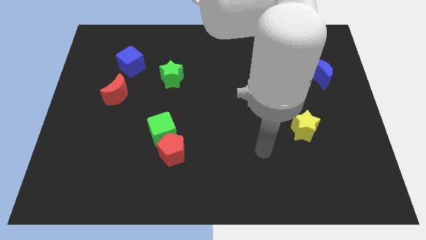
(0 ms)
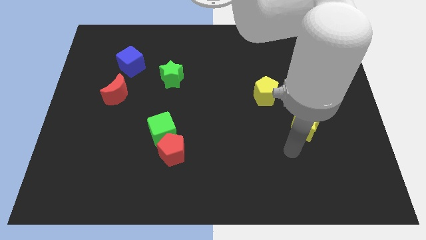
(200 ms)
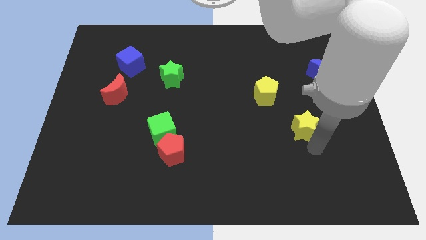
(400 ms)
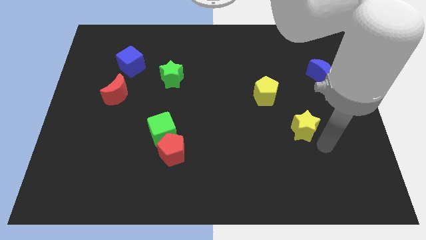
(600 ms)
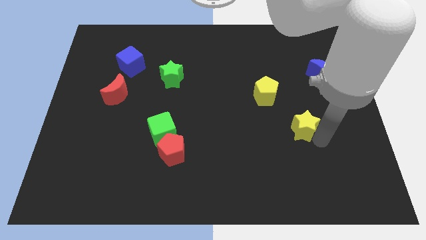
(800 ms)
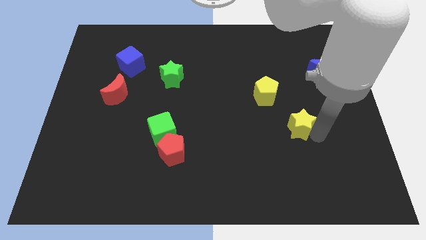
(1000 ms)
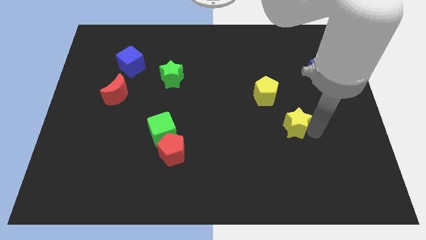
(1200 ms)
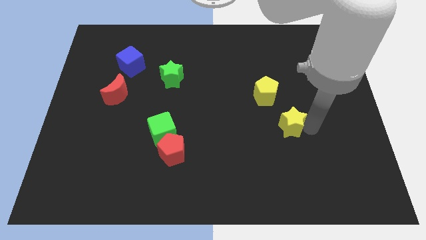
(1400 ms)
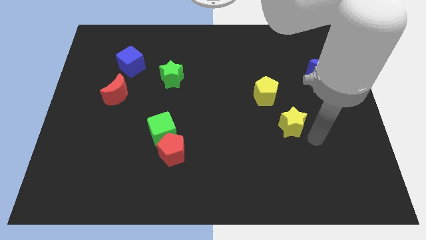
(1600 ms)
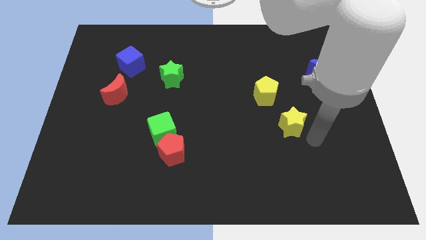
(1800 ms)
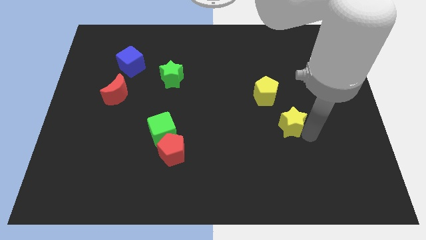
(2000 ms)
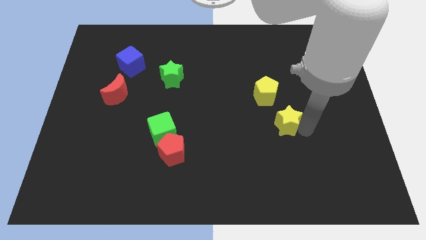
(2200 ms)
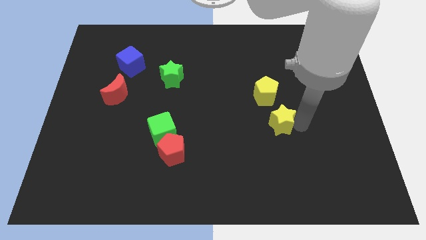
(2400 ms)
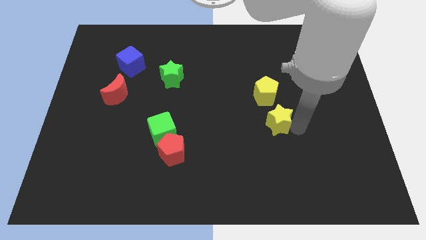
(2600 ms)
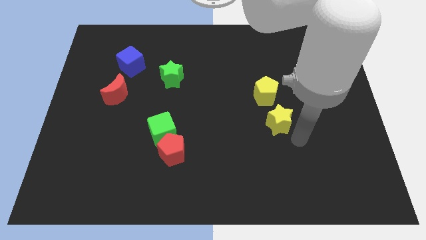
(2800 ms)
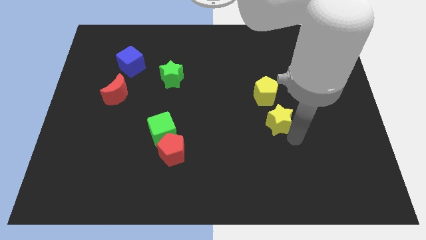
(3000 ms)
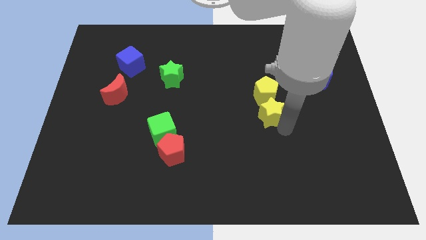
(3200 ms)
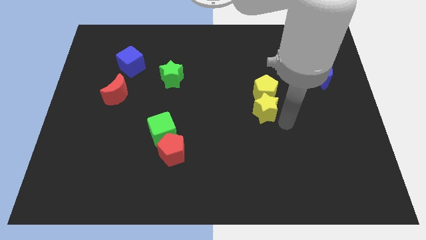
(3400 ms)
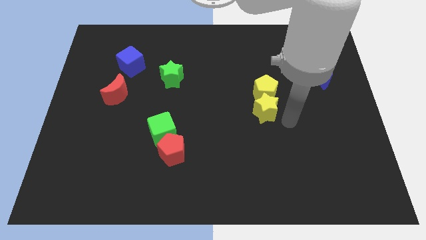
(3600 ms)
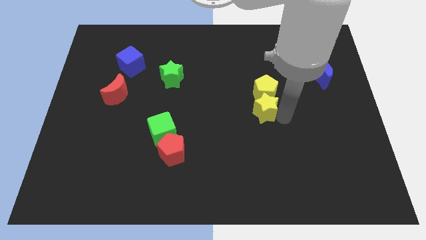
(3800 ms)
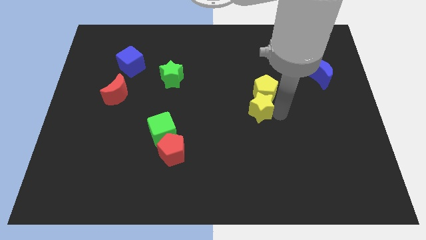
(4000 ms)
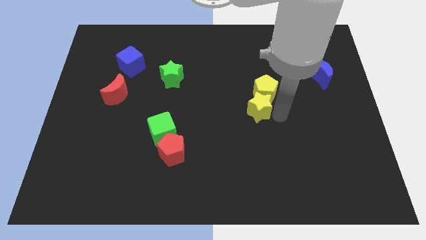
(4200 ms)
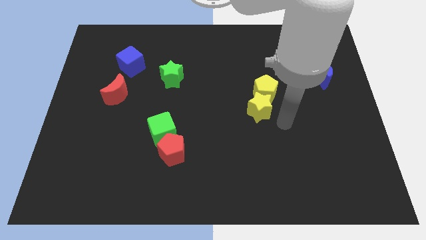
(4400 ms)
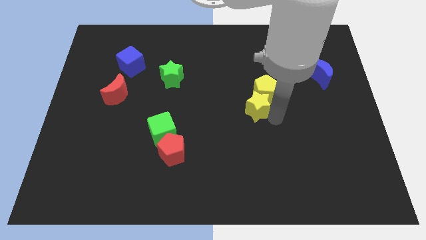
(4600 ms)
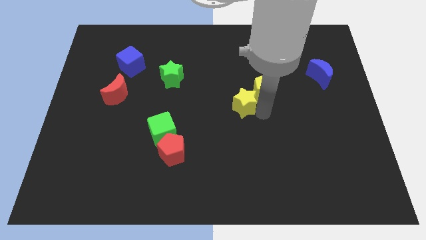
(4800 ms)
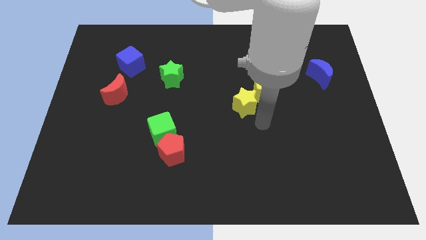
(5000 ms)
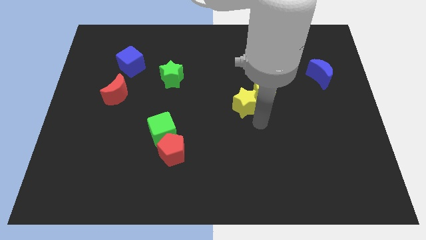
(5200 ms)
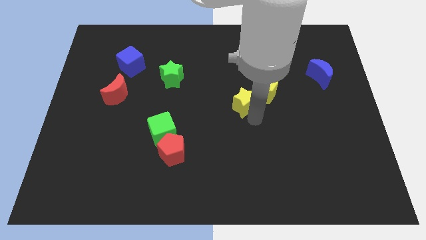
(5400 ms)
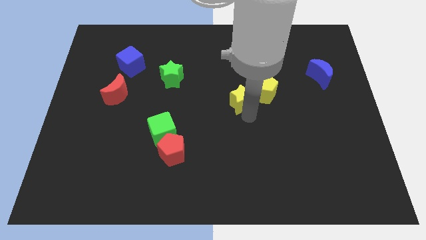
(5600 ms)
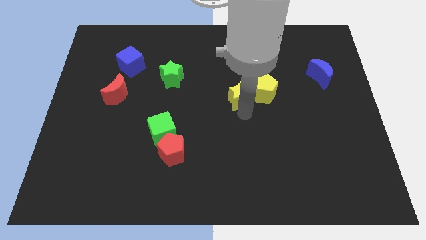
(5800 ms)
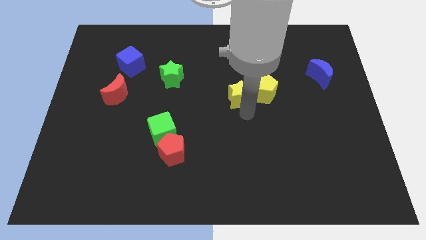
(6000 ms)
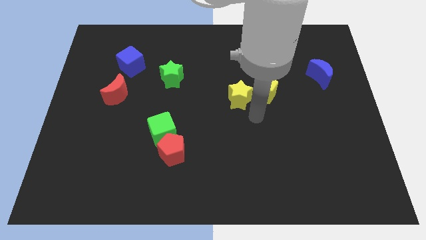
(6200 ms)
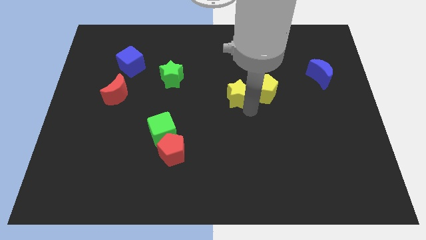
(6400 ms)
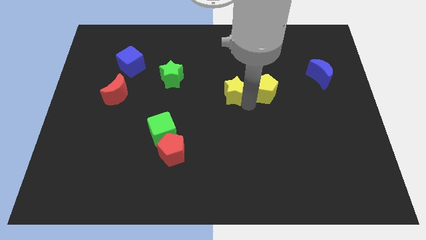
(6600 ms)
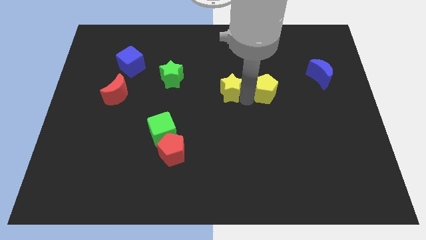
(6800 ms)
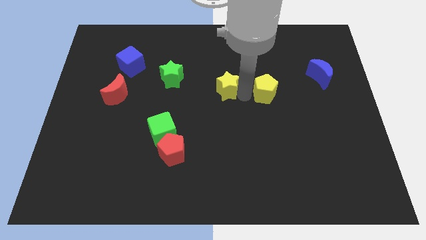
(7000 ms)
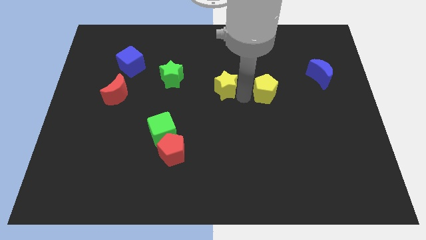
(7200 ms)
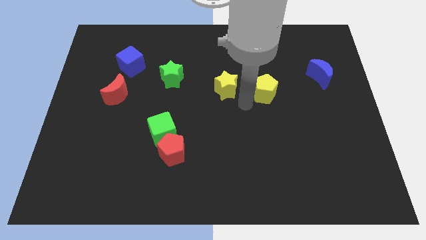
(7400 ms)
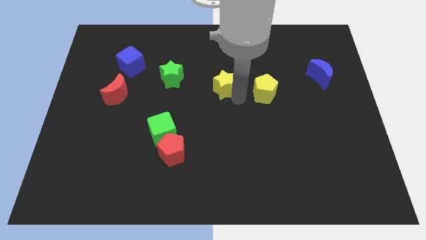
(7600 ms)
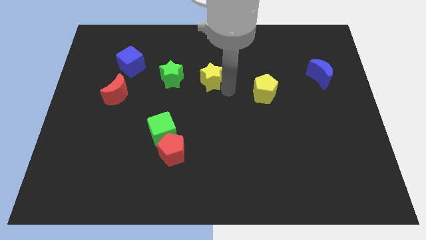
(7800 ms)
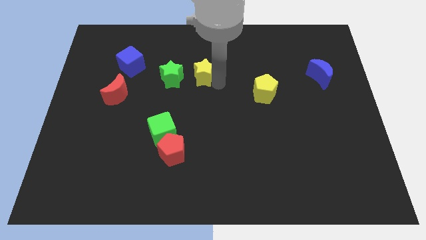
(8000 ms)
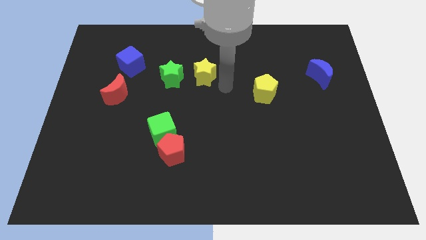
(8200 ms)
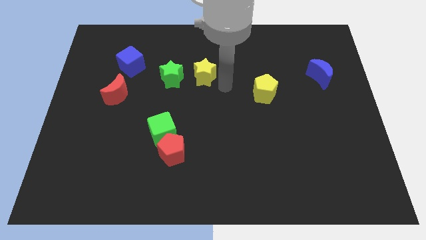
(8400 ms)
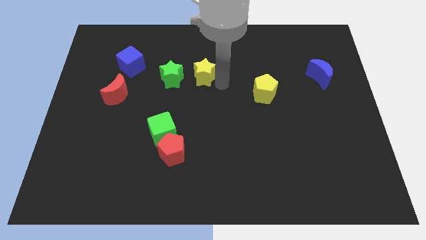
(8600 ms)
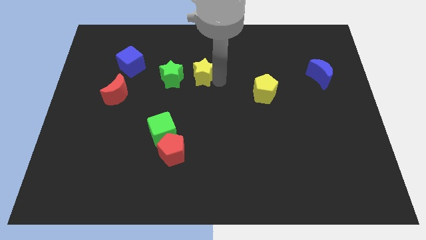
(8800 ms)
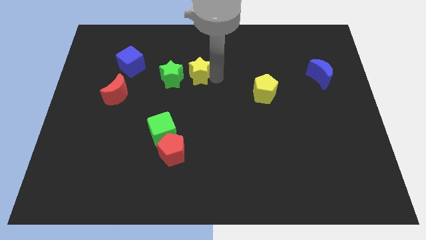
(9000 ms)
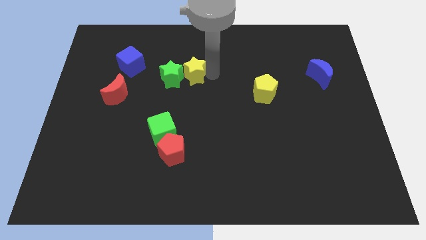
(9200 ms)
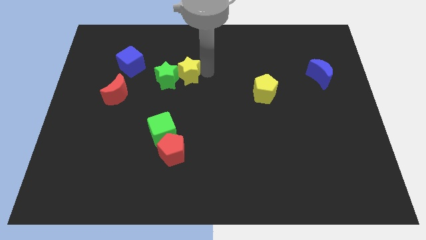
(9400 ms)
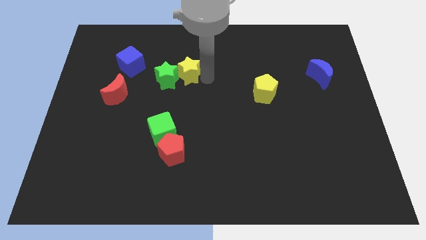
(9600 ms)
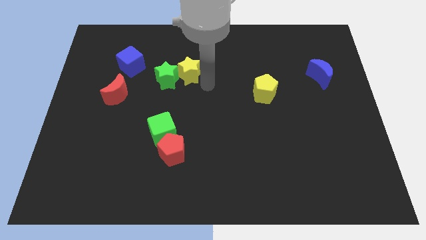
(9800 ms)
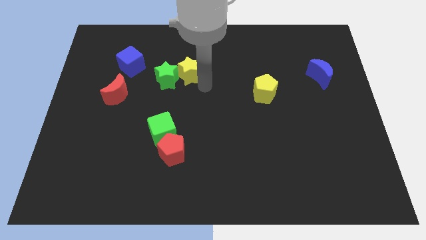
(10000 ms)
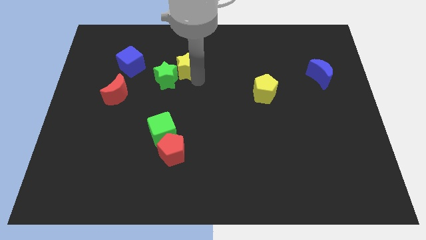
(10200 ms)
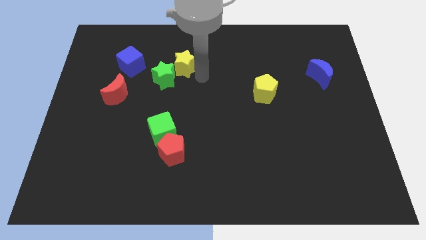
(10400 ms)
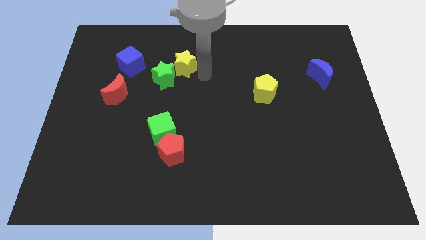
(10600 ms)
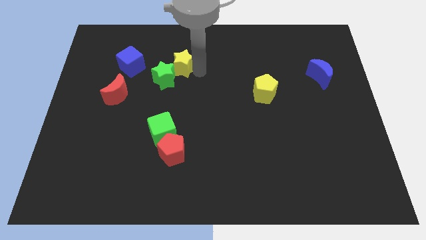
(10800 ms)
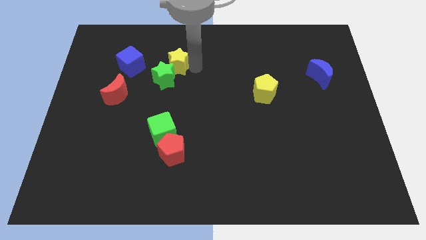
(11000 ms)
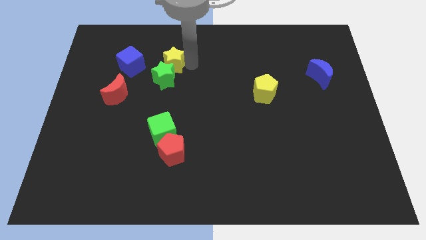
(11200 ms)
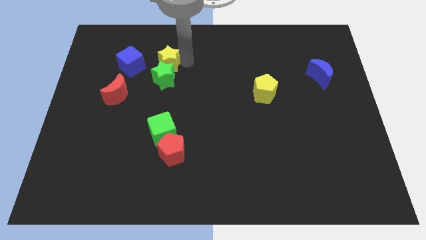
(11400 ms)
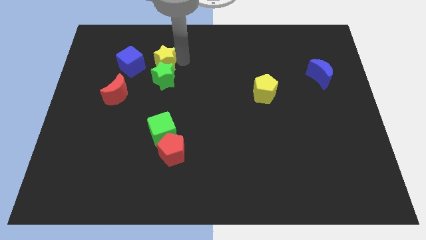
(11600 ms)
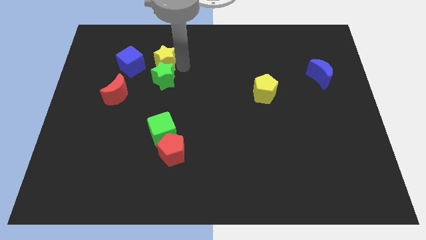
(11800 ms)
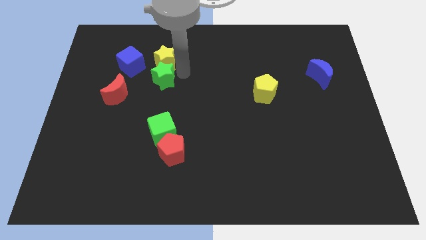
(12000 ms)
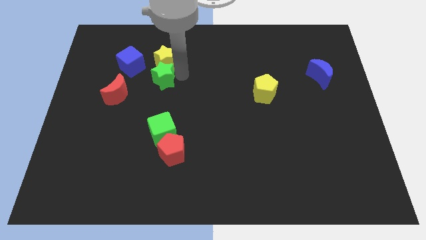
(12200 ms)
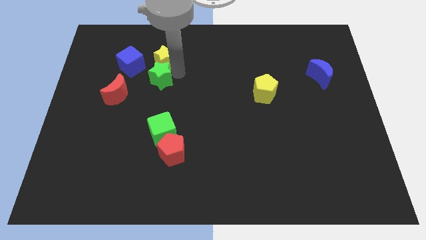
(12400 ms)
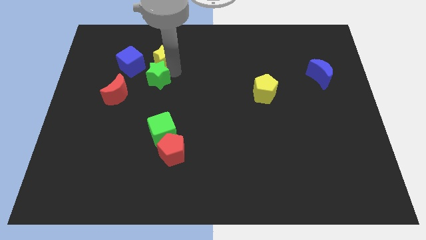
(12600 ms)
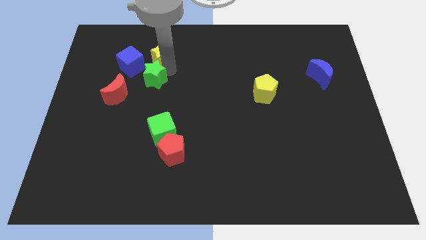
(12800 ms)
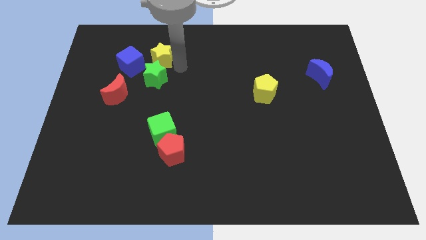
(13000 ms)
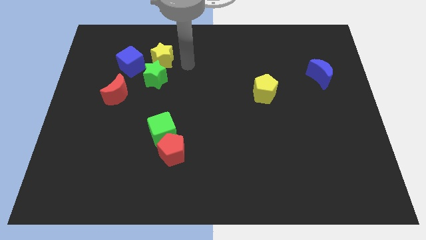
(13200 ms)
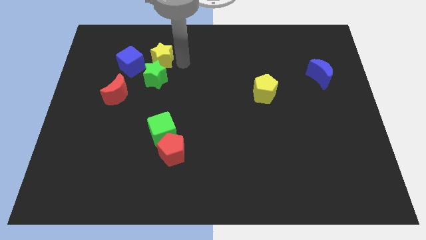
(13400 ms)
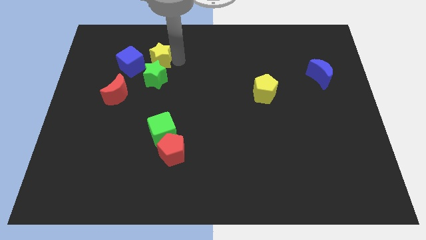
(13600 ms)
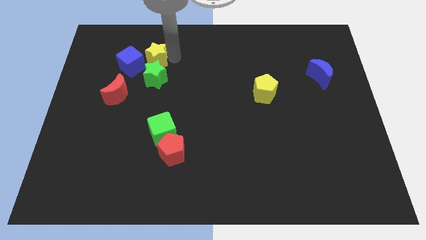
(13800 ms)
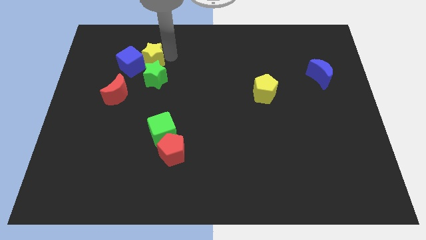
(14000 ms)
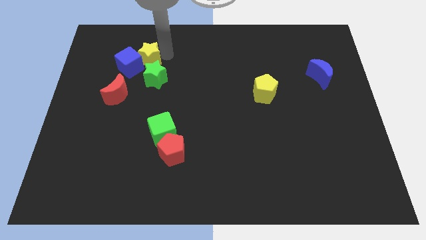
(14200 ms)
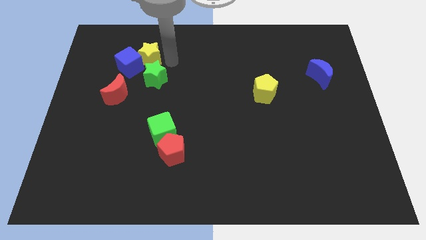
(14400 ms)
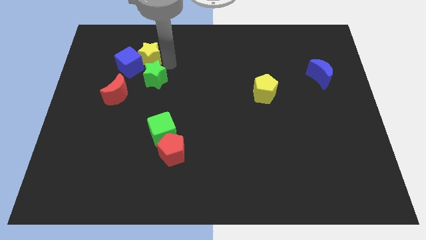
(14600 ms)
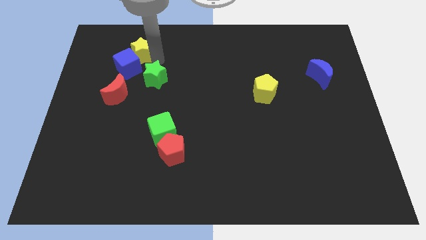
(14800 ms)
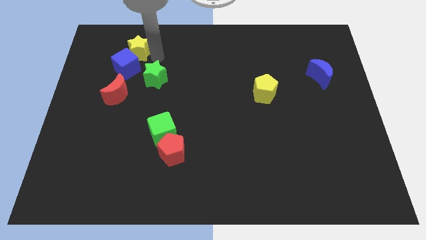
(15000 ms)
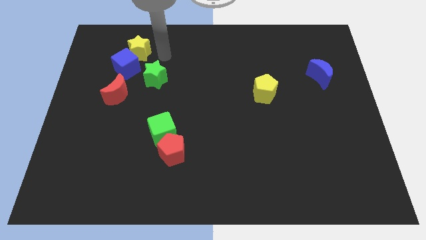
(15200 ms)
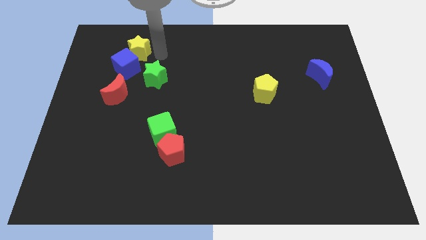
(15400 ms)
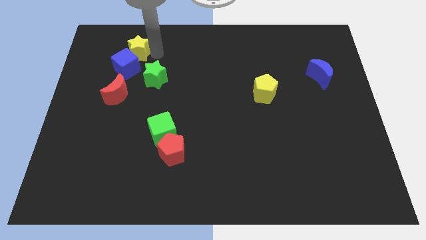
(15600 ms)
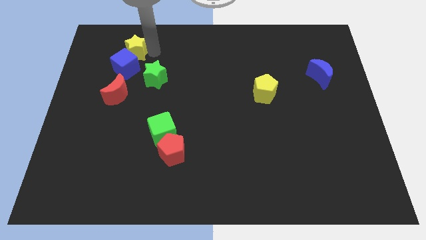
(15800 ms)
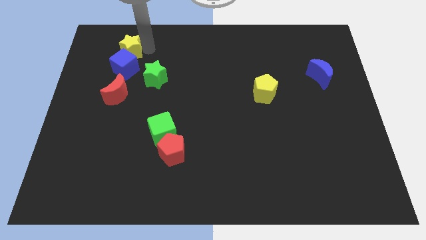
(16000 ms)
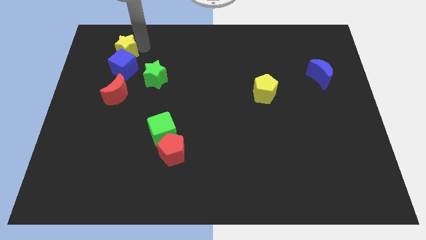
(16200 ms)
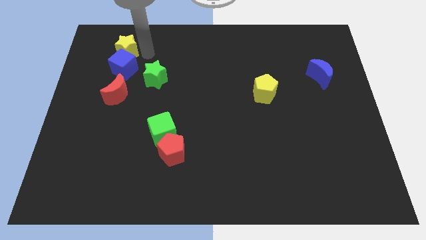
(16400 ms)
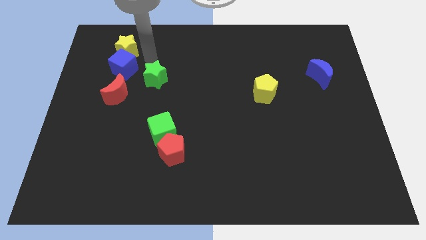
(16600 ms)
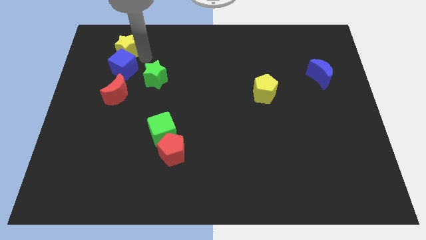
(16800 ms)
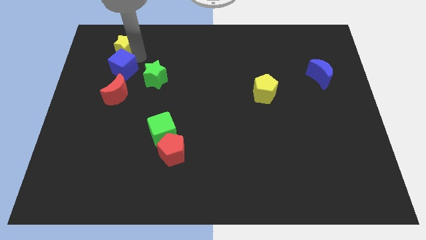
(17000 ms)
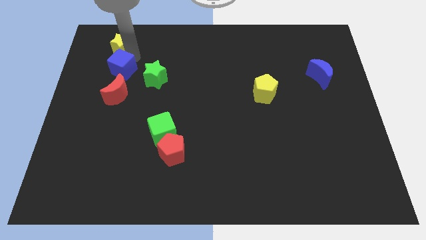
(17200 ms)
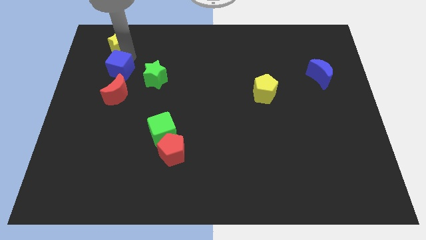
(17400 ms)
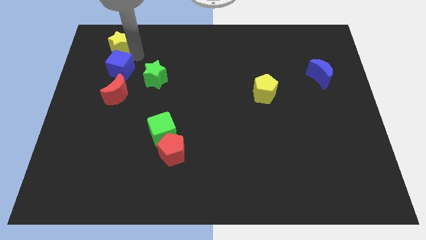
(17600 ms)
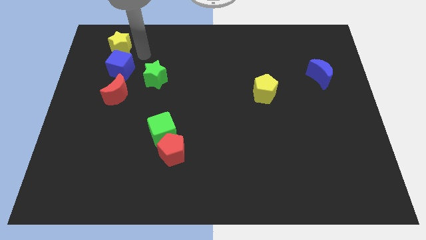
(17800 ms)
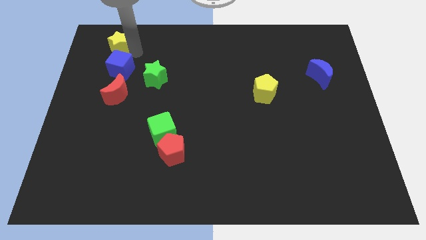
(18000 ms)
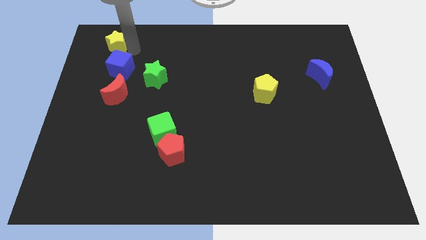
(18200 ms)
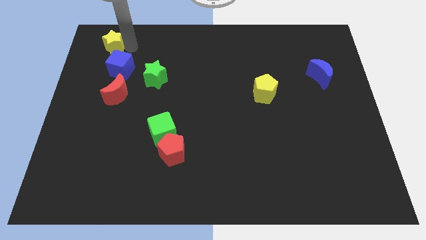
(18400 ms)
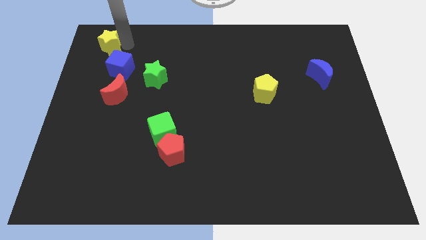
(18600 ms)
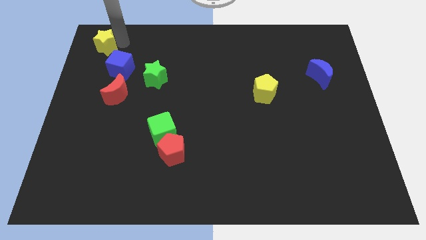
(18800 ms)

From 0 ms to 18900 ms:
slide the yellow star to the top left corner
